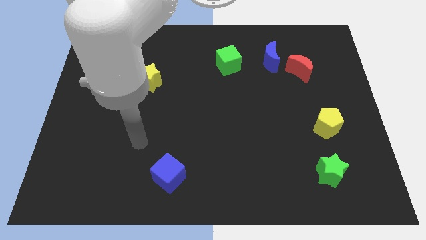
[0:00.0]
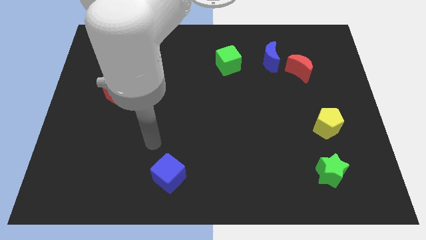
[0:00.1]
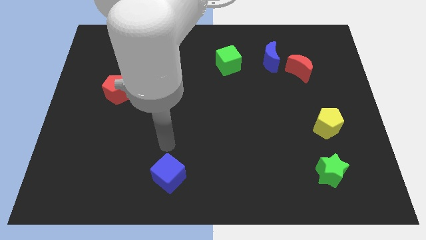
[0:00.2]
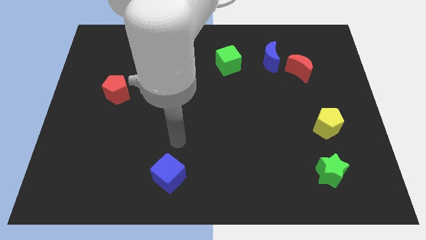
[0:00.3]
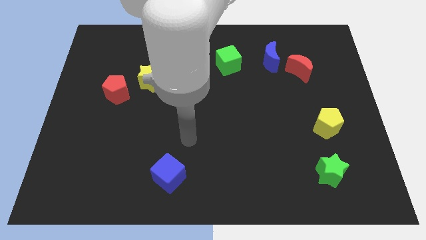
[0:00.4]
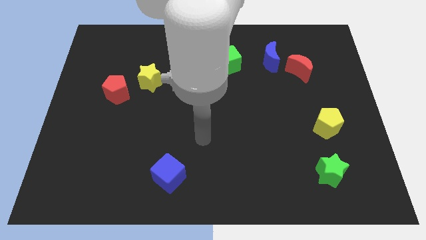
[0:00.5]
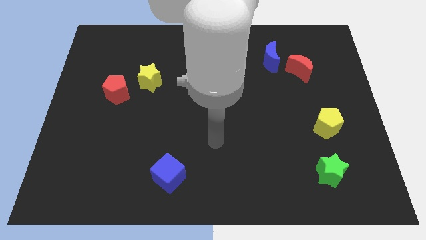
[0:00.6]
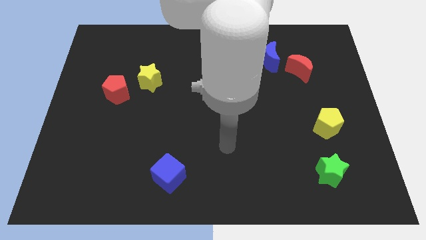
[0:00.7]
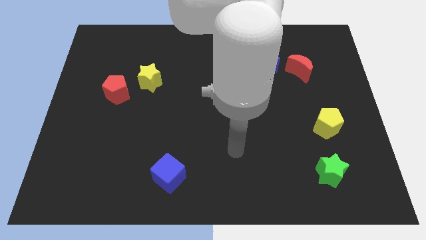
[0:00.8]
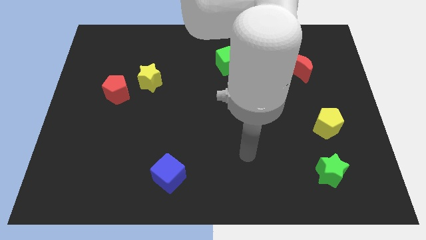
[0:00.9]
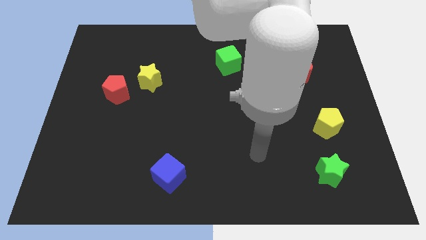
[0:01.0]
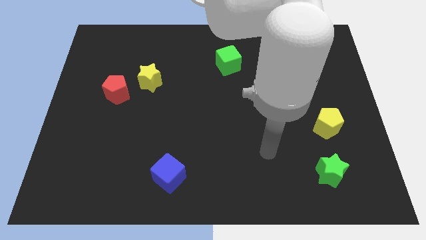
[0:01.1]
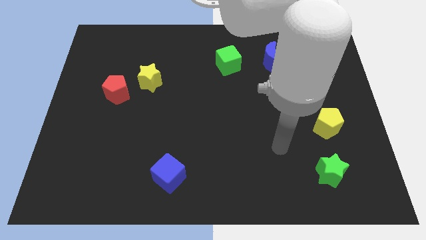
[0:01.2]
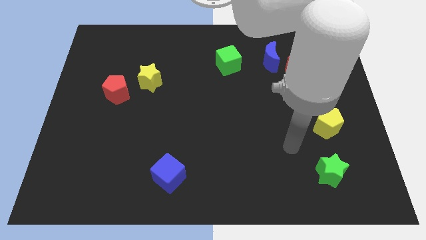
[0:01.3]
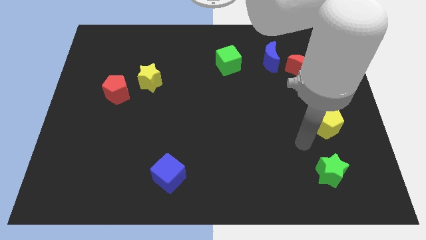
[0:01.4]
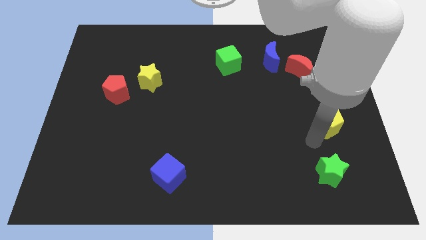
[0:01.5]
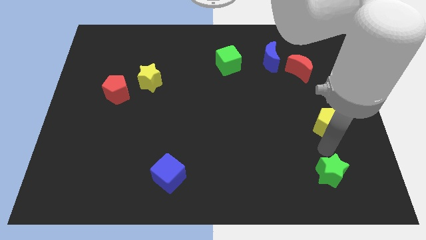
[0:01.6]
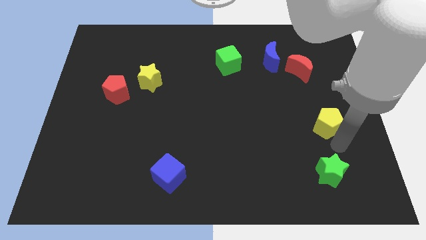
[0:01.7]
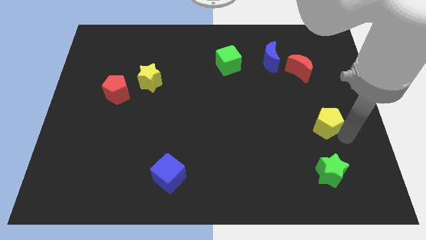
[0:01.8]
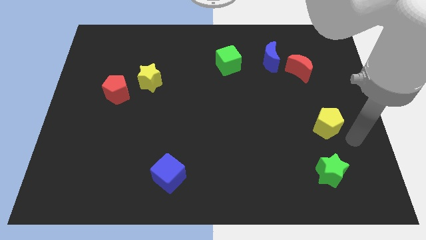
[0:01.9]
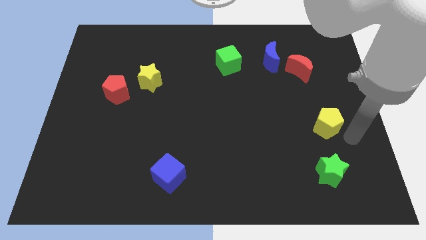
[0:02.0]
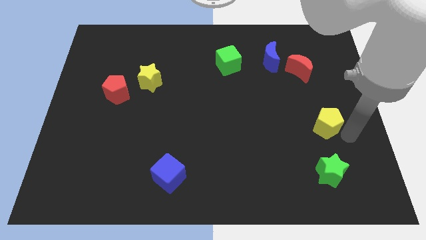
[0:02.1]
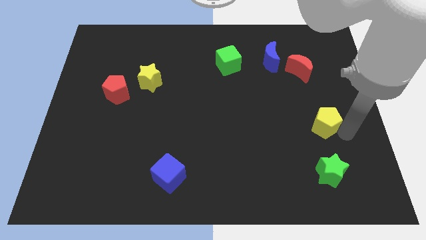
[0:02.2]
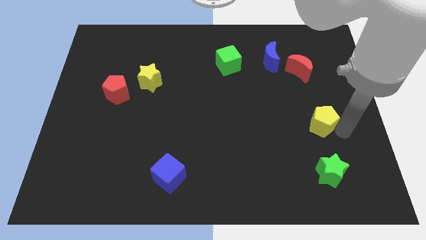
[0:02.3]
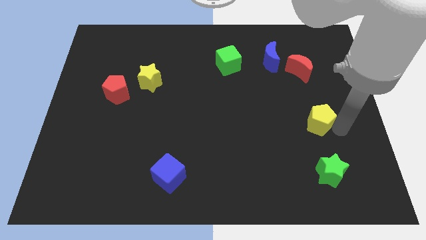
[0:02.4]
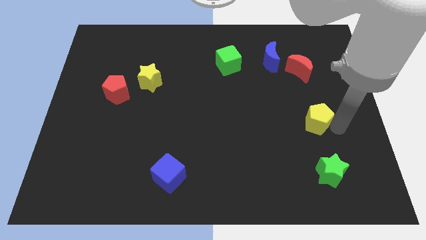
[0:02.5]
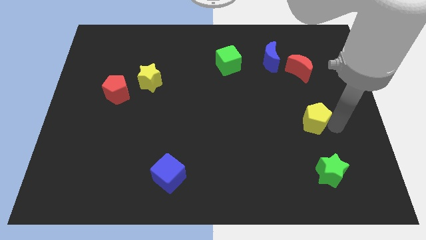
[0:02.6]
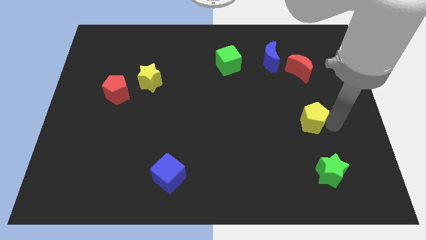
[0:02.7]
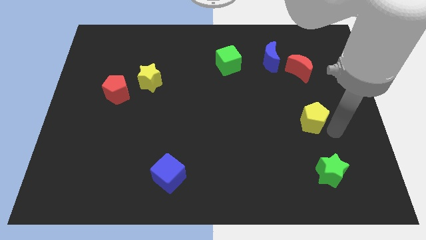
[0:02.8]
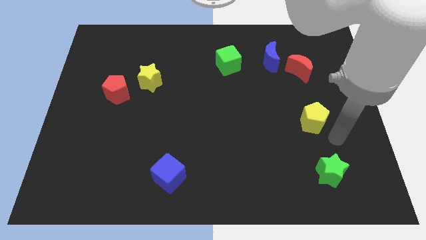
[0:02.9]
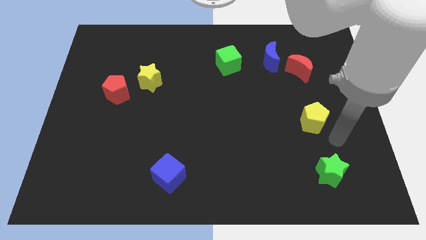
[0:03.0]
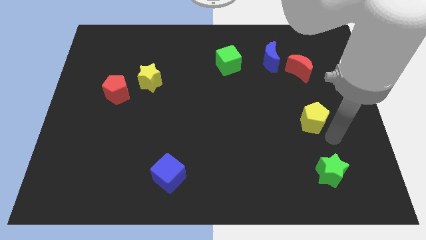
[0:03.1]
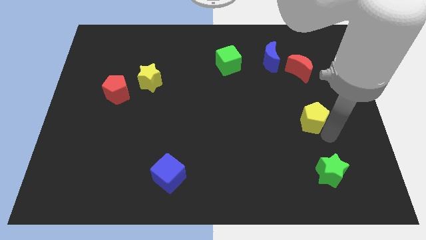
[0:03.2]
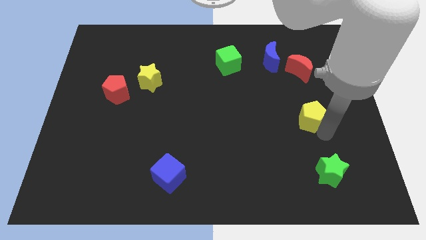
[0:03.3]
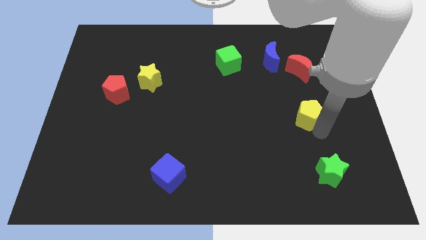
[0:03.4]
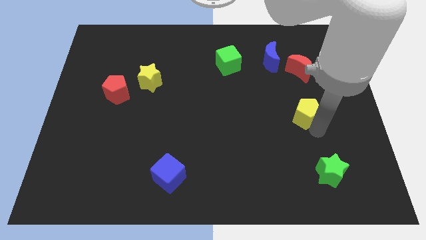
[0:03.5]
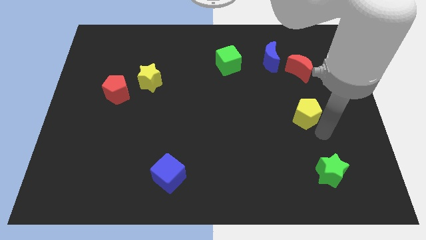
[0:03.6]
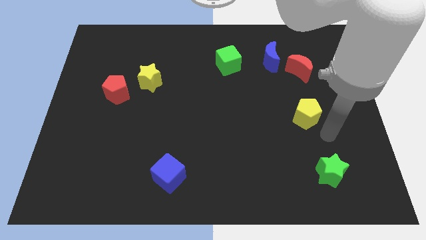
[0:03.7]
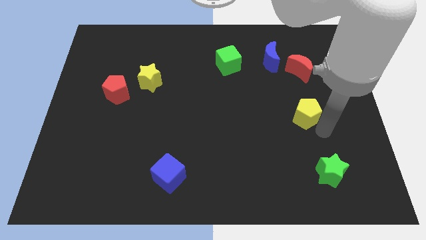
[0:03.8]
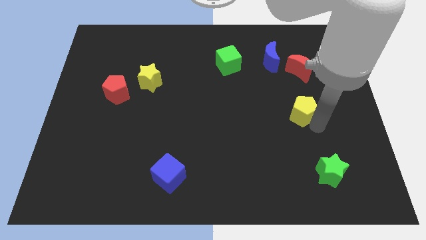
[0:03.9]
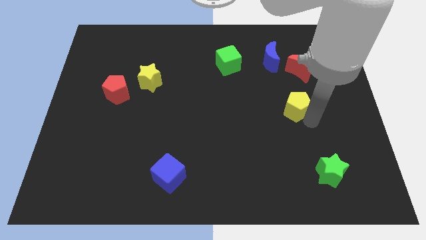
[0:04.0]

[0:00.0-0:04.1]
slightly move the yellow pentagon upwards and to the left diagonally

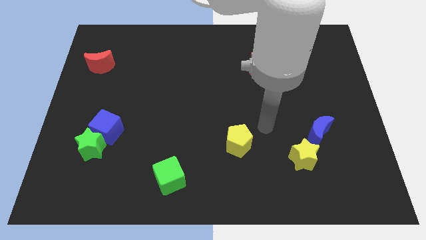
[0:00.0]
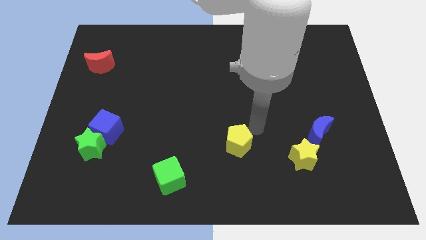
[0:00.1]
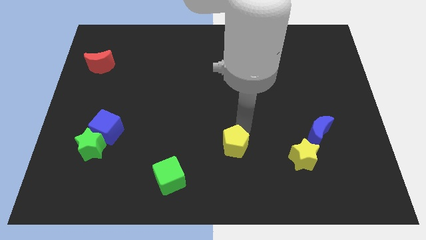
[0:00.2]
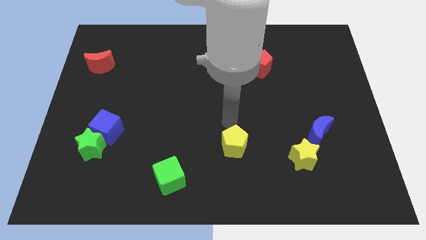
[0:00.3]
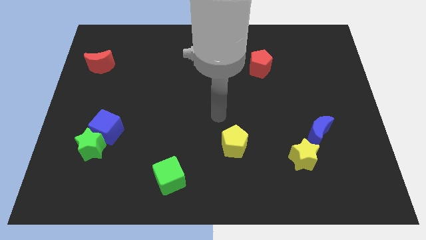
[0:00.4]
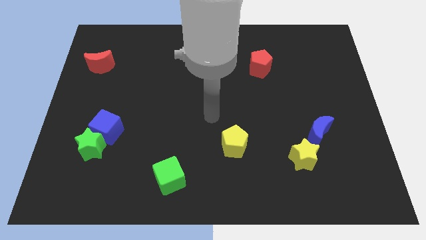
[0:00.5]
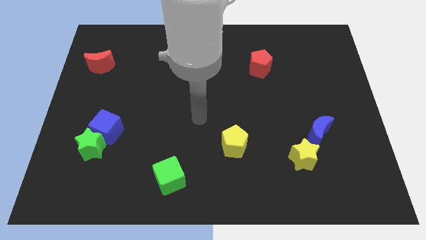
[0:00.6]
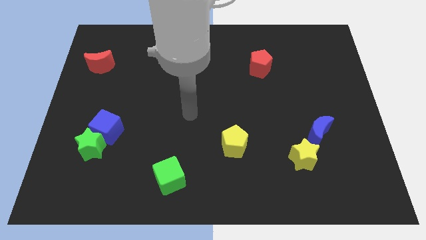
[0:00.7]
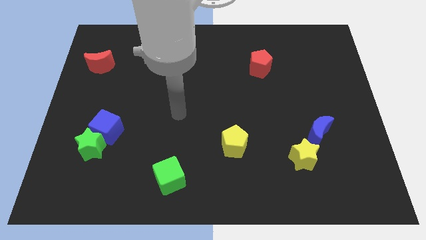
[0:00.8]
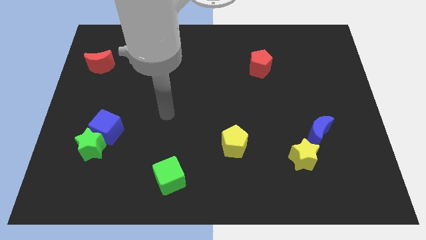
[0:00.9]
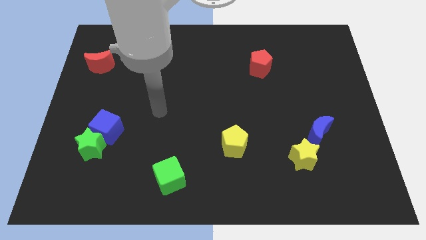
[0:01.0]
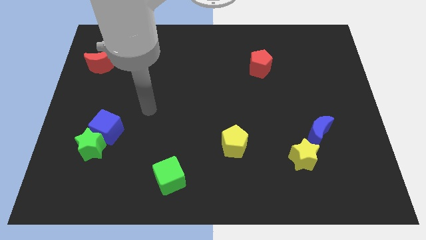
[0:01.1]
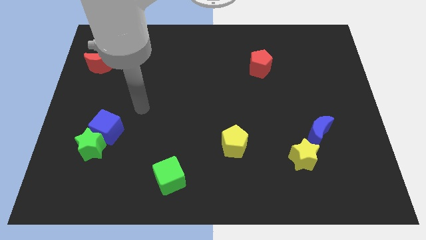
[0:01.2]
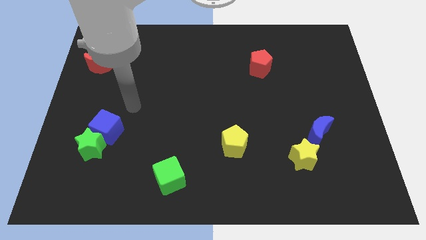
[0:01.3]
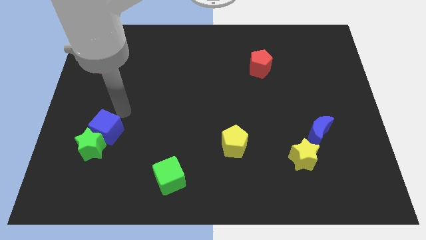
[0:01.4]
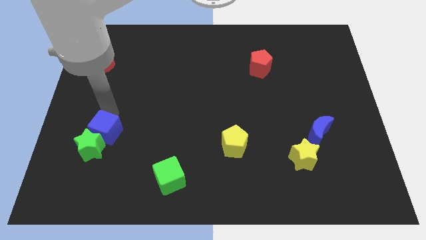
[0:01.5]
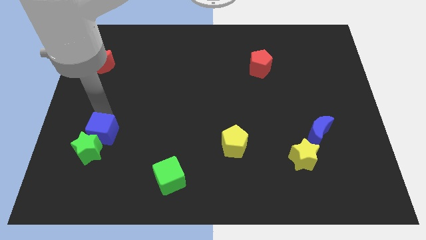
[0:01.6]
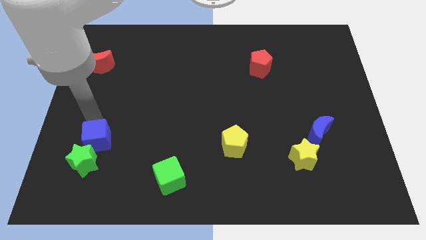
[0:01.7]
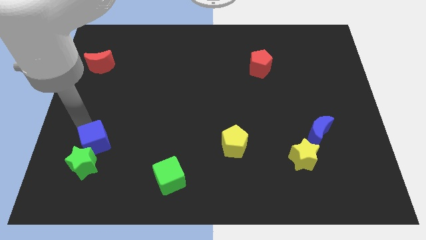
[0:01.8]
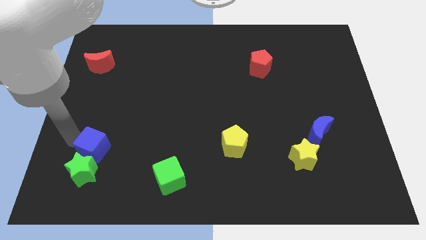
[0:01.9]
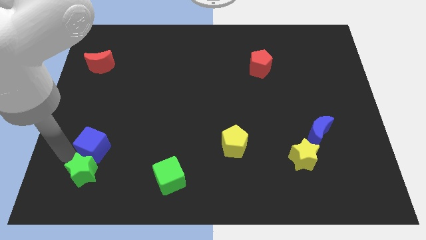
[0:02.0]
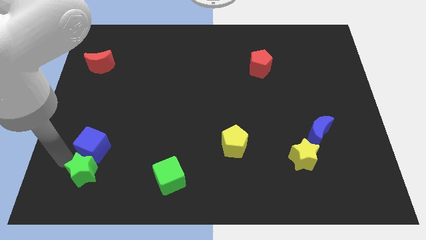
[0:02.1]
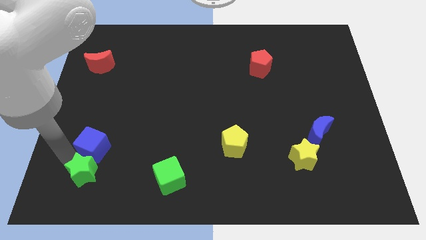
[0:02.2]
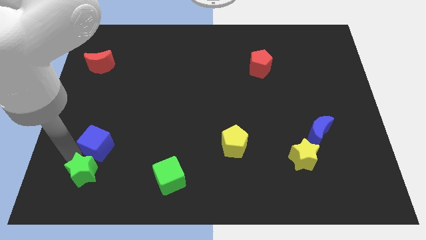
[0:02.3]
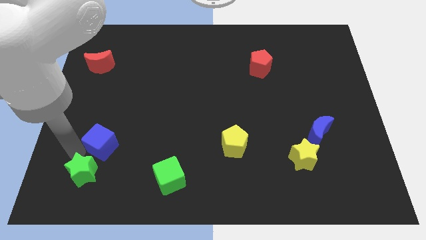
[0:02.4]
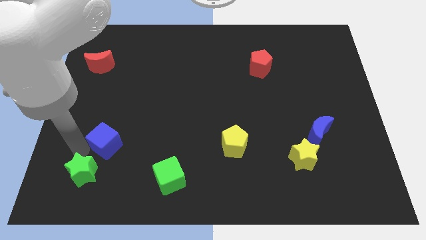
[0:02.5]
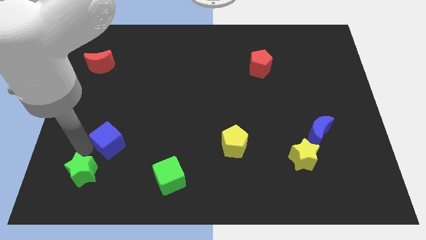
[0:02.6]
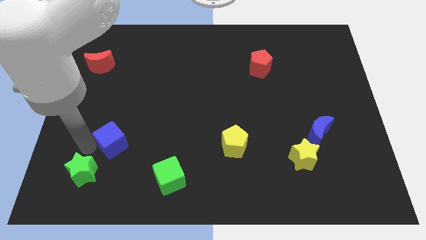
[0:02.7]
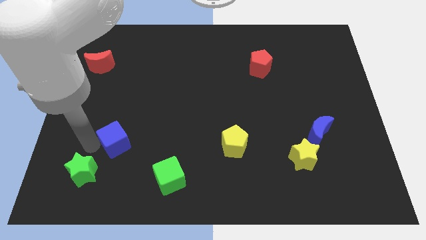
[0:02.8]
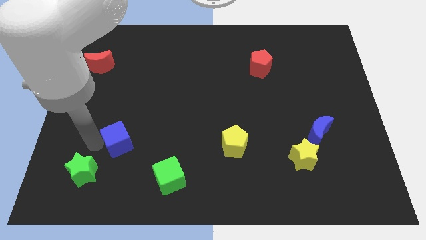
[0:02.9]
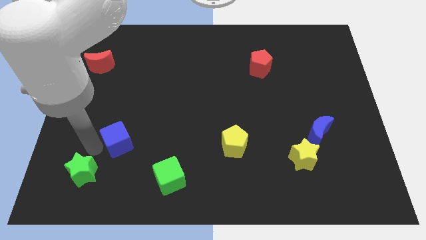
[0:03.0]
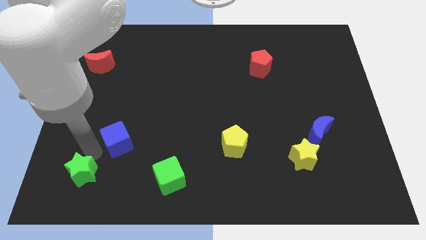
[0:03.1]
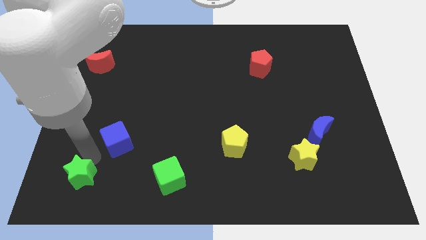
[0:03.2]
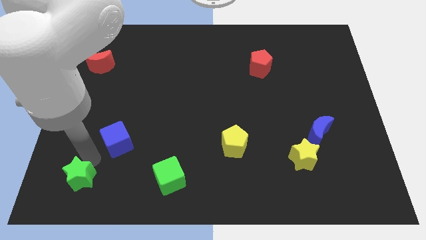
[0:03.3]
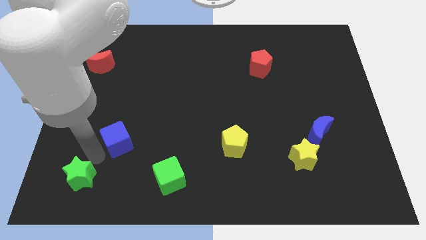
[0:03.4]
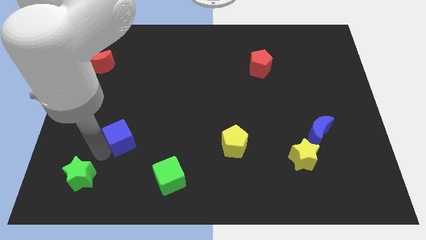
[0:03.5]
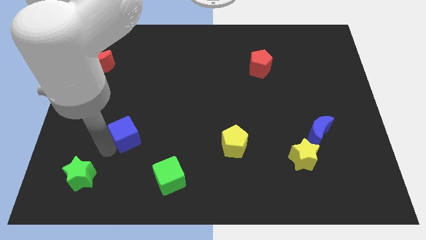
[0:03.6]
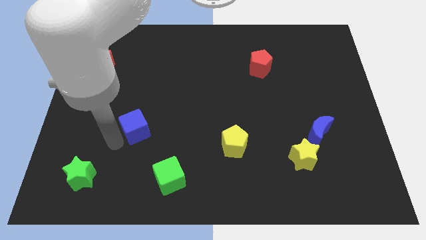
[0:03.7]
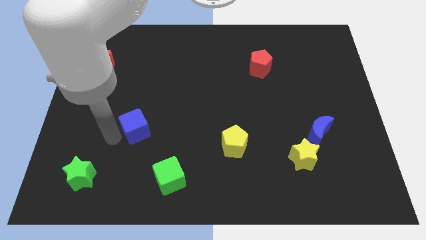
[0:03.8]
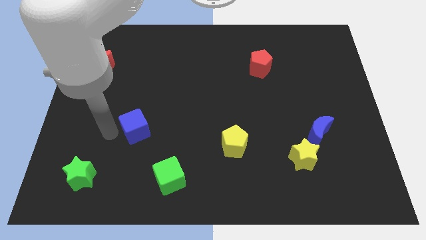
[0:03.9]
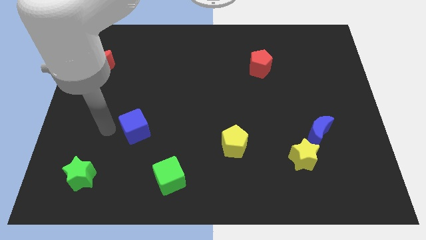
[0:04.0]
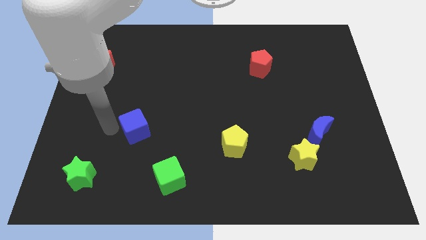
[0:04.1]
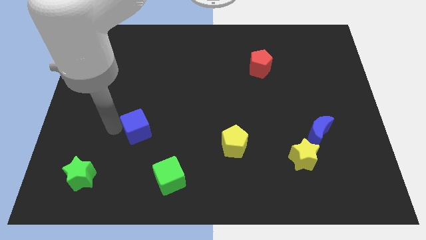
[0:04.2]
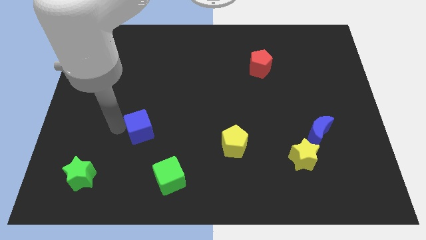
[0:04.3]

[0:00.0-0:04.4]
slightly slide the blue cube right
